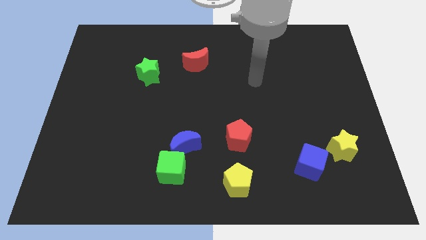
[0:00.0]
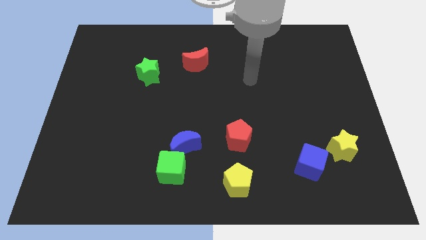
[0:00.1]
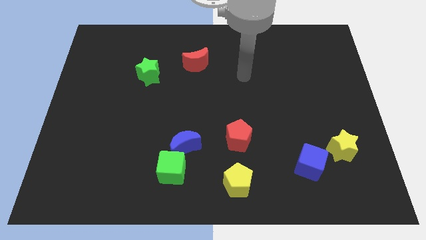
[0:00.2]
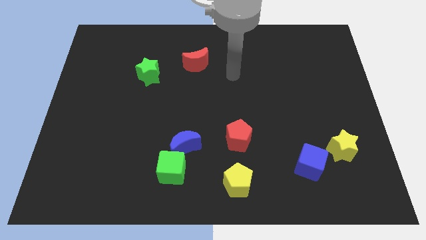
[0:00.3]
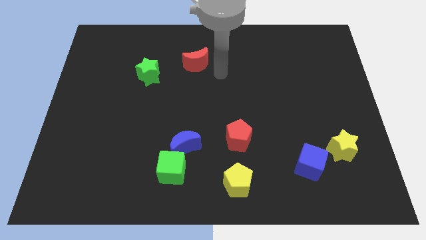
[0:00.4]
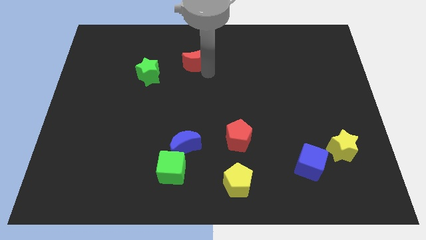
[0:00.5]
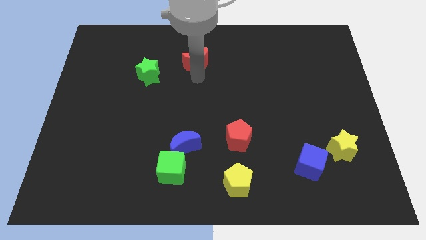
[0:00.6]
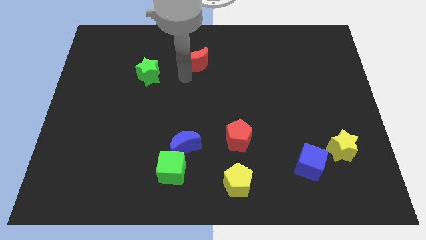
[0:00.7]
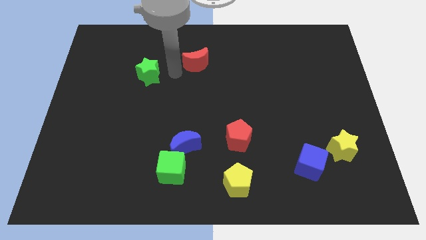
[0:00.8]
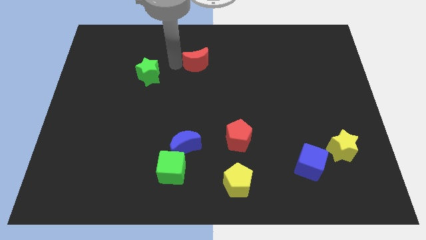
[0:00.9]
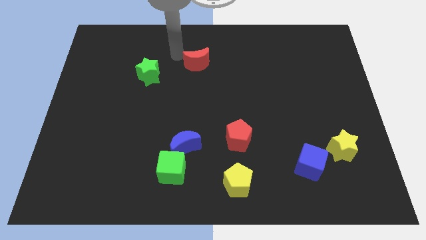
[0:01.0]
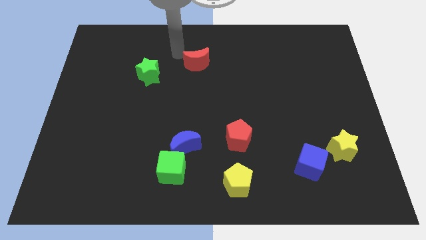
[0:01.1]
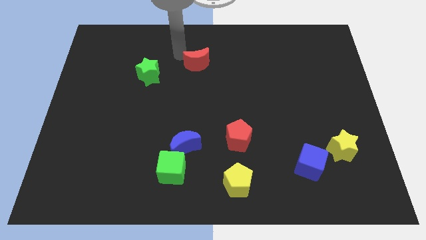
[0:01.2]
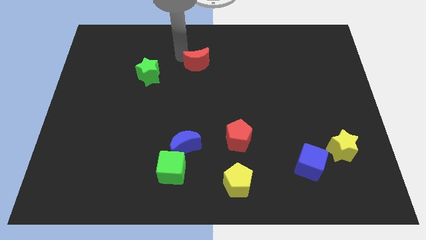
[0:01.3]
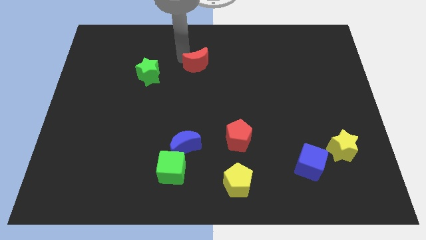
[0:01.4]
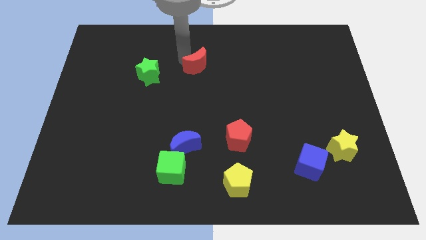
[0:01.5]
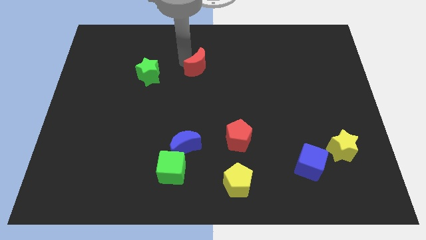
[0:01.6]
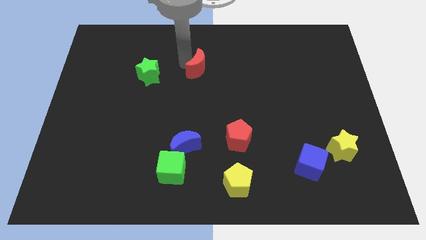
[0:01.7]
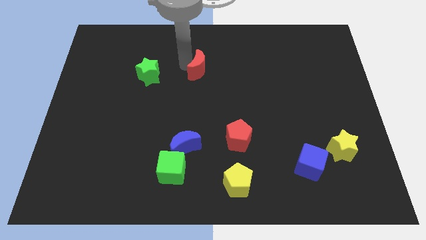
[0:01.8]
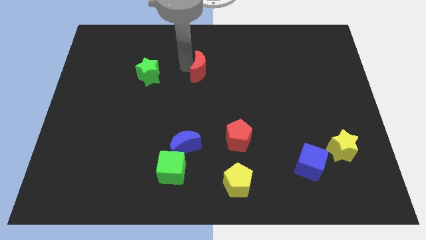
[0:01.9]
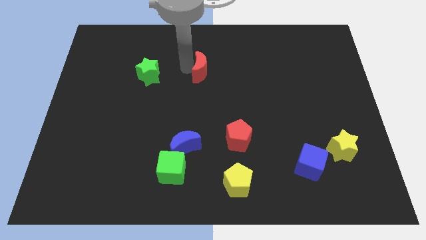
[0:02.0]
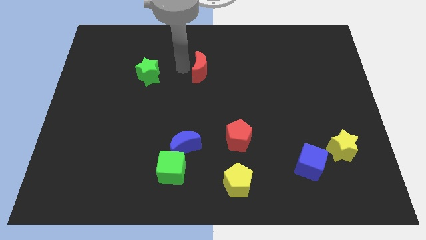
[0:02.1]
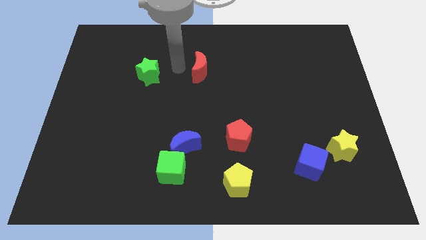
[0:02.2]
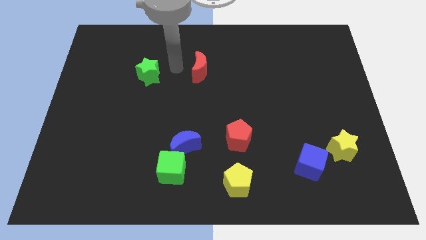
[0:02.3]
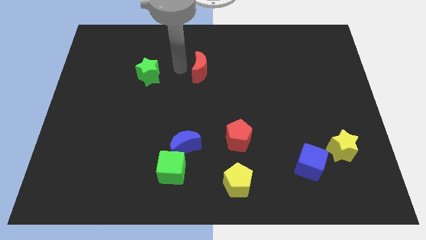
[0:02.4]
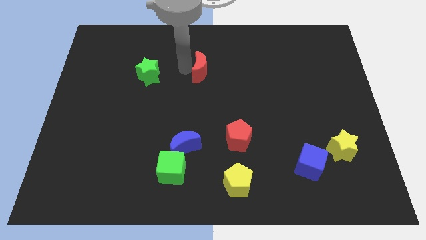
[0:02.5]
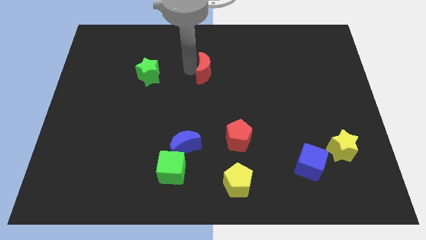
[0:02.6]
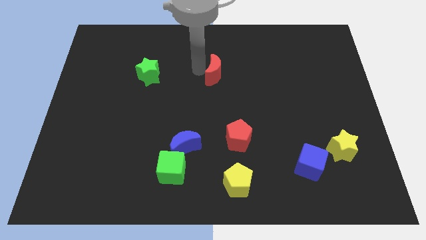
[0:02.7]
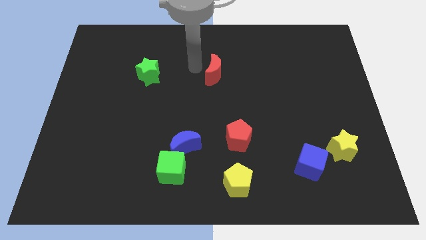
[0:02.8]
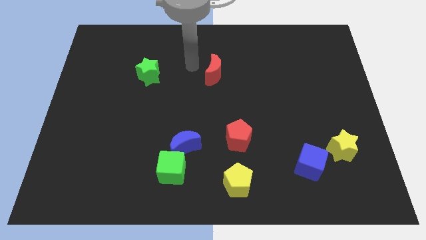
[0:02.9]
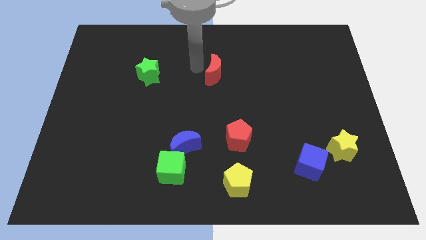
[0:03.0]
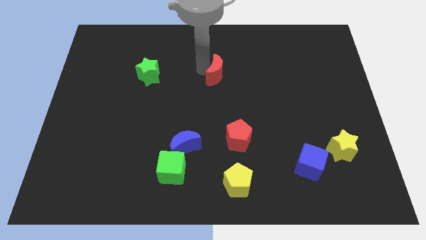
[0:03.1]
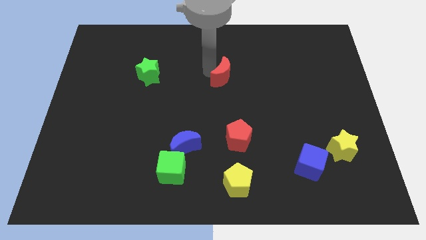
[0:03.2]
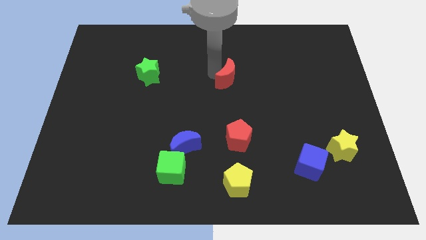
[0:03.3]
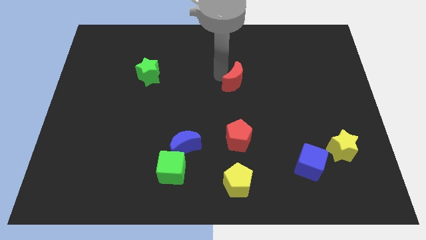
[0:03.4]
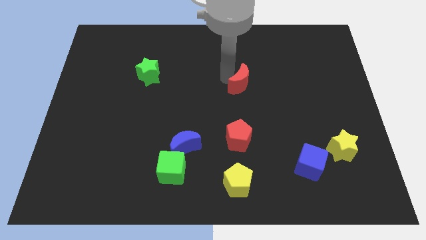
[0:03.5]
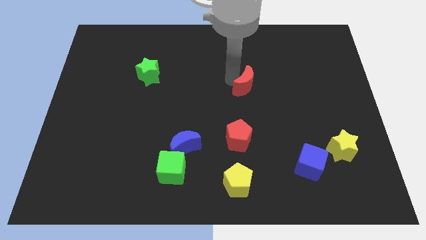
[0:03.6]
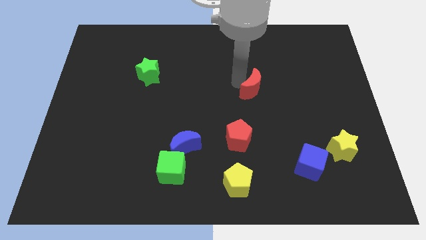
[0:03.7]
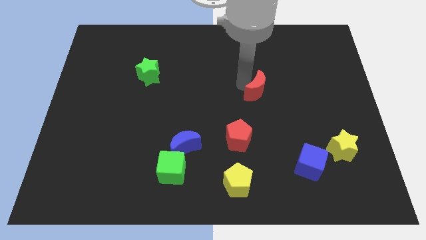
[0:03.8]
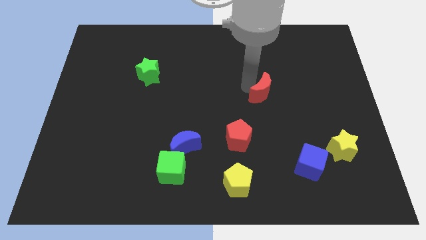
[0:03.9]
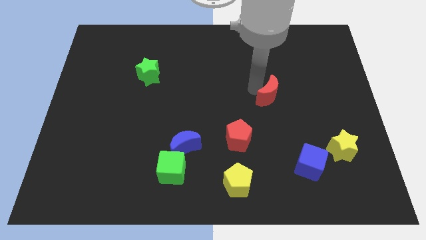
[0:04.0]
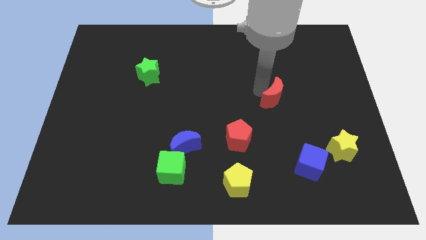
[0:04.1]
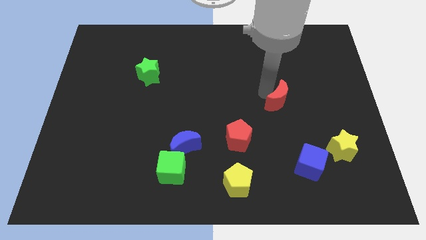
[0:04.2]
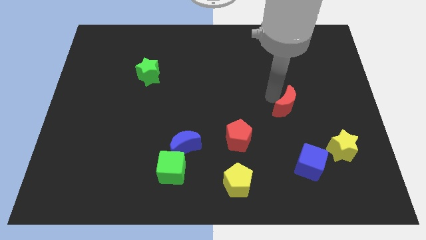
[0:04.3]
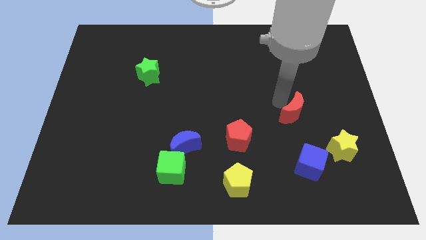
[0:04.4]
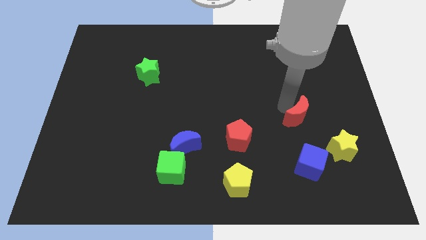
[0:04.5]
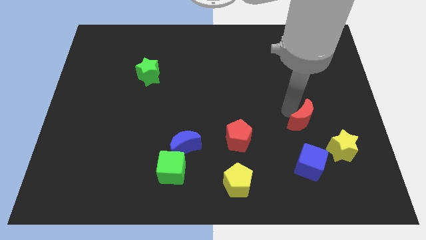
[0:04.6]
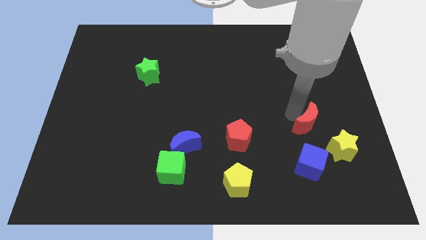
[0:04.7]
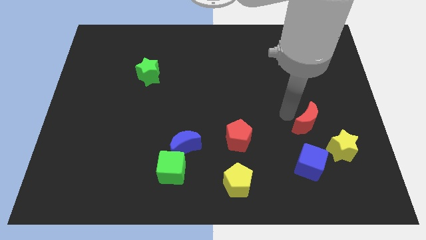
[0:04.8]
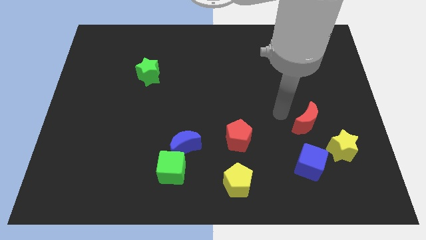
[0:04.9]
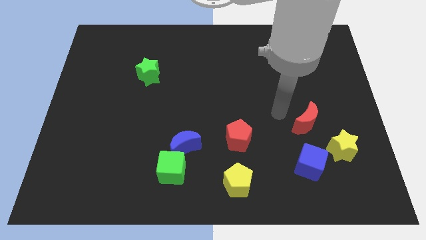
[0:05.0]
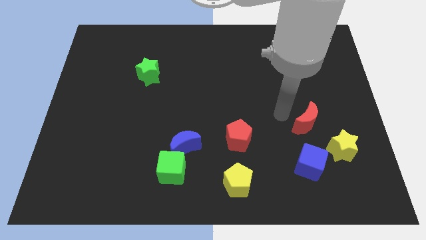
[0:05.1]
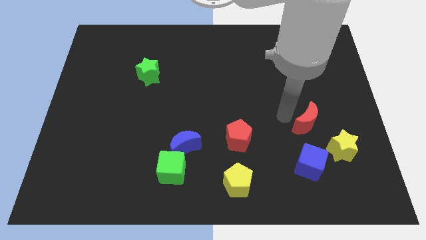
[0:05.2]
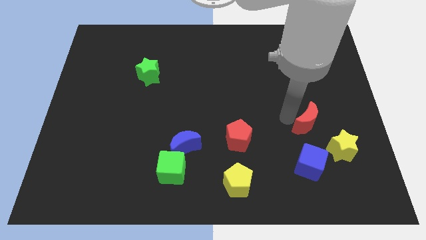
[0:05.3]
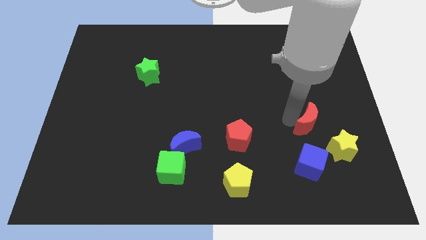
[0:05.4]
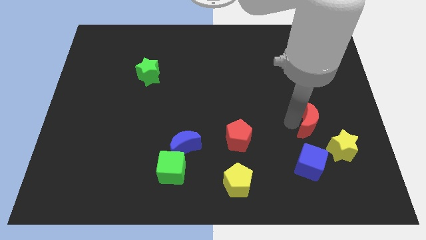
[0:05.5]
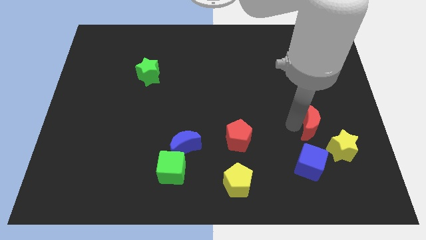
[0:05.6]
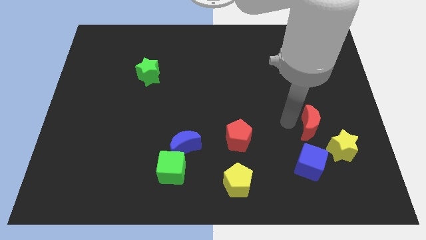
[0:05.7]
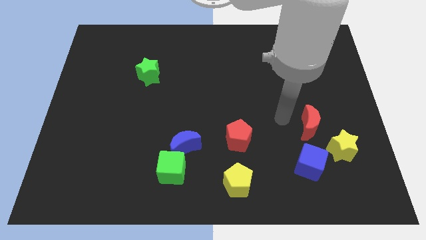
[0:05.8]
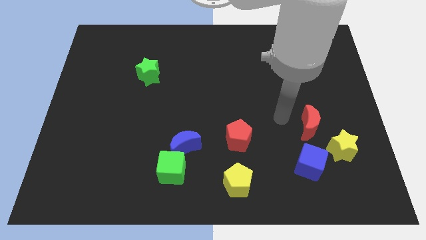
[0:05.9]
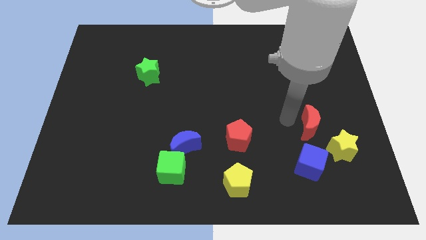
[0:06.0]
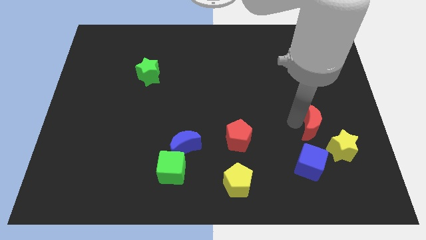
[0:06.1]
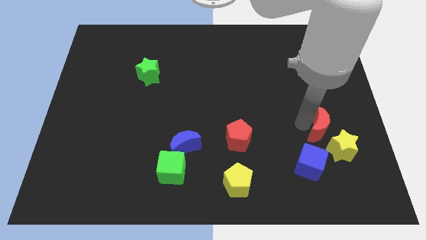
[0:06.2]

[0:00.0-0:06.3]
move the red moon to the top right side of the blue cube
